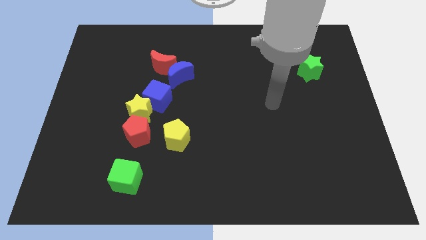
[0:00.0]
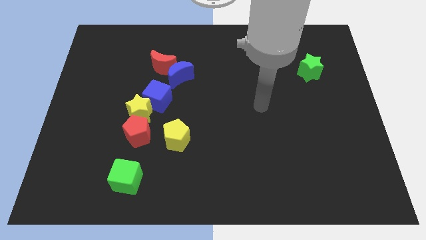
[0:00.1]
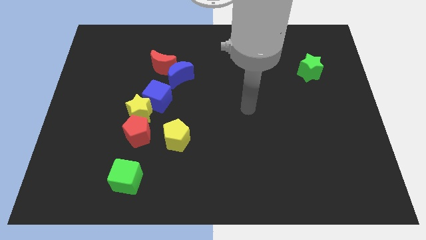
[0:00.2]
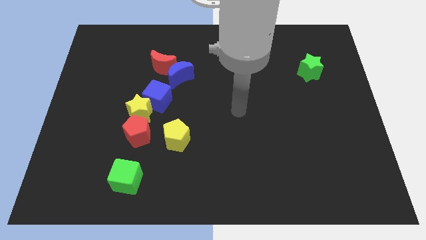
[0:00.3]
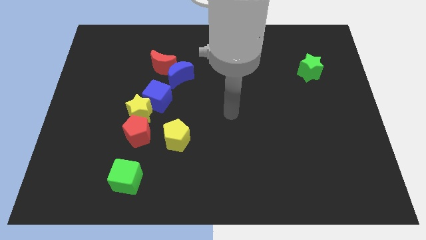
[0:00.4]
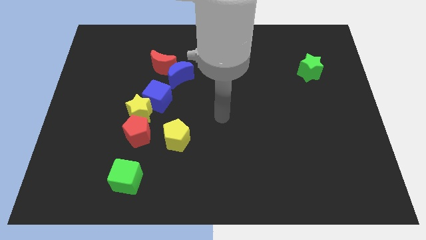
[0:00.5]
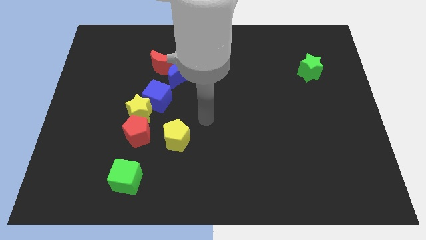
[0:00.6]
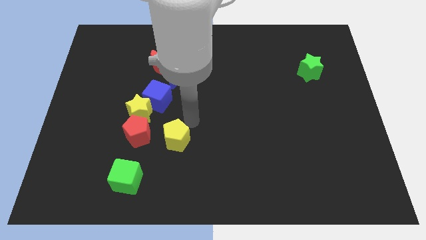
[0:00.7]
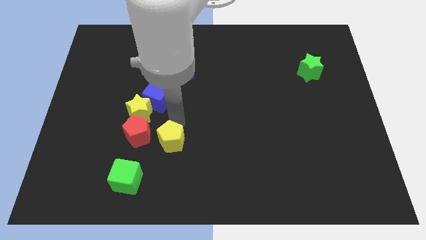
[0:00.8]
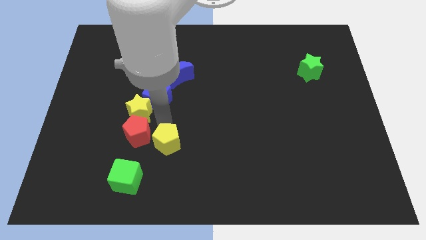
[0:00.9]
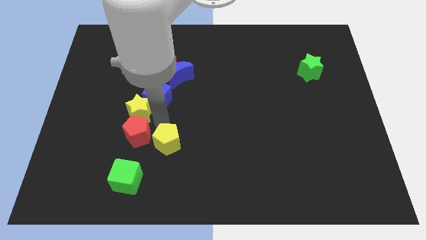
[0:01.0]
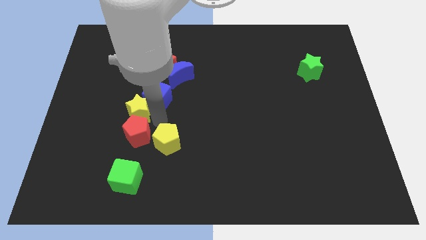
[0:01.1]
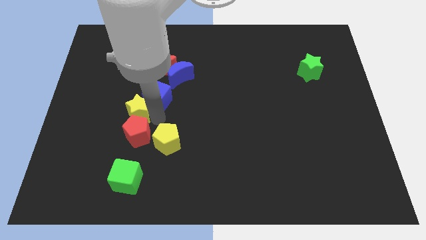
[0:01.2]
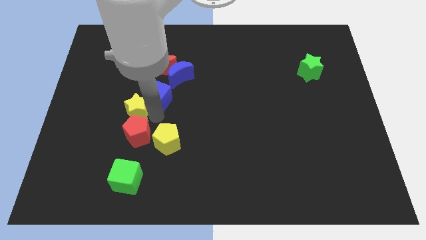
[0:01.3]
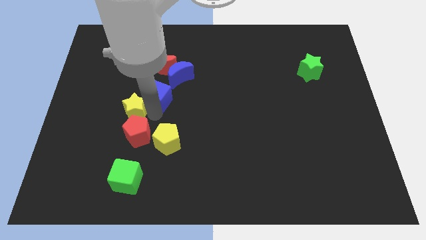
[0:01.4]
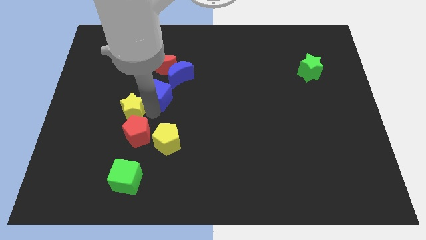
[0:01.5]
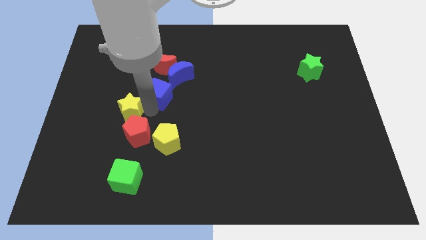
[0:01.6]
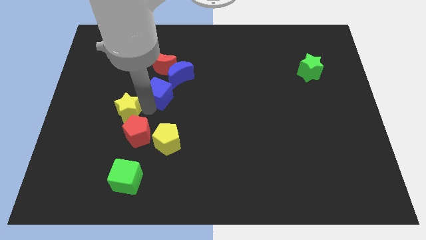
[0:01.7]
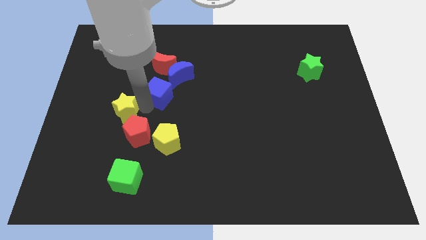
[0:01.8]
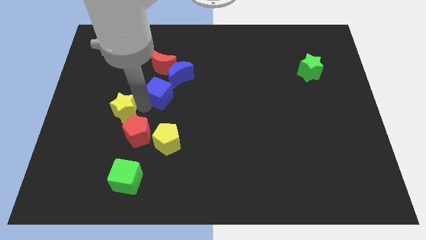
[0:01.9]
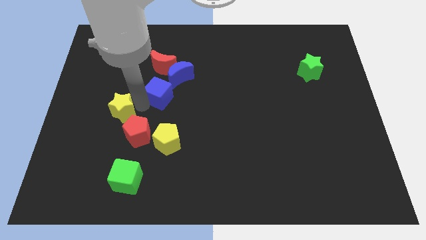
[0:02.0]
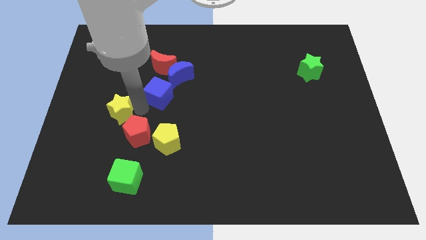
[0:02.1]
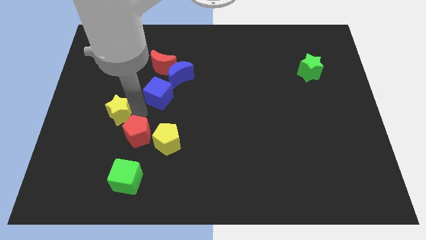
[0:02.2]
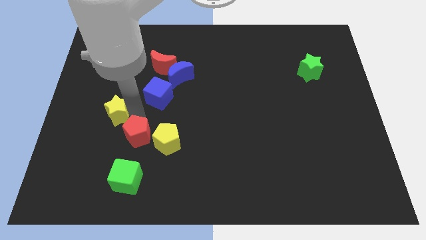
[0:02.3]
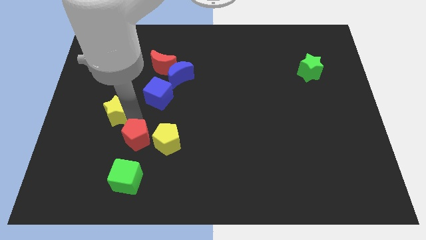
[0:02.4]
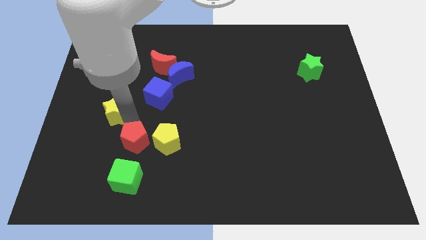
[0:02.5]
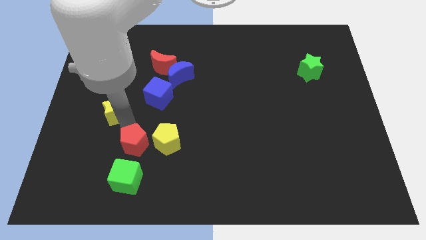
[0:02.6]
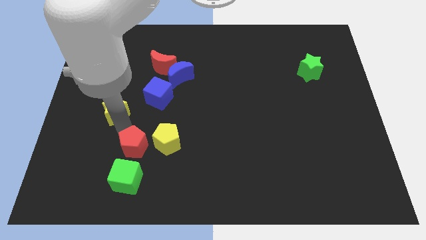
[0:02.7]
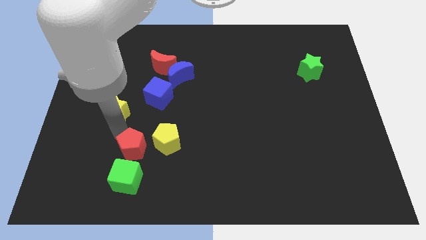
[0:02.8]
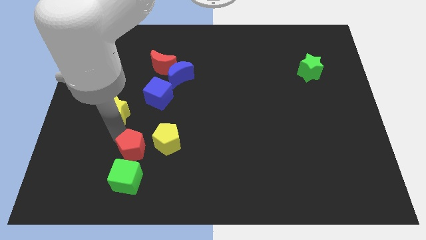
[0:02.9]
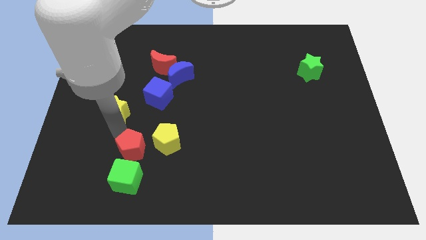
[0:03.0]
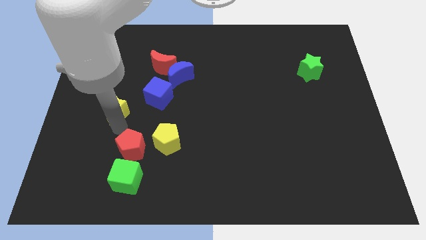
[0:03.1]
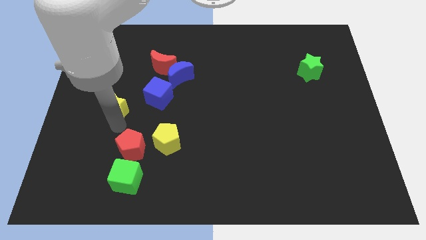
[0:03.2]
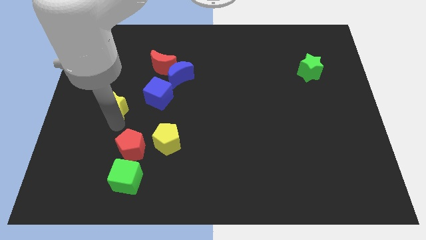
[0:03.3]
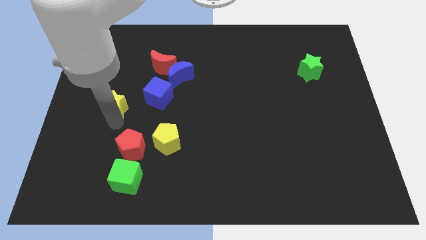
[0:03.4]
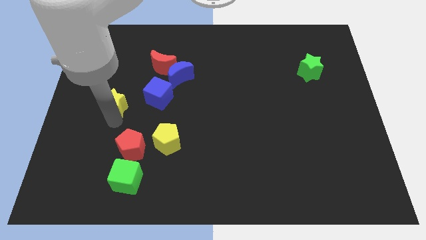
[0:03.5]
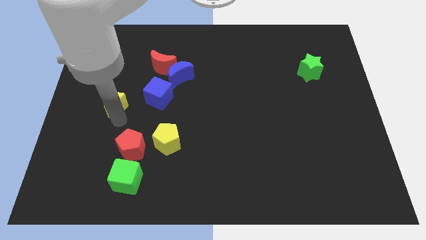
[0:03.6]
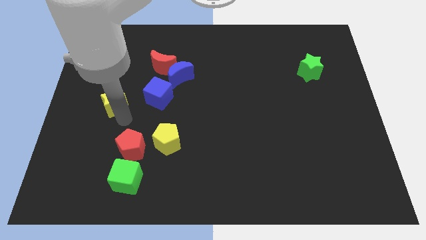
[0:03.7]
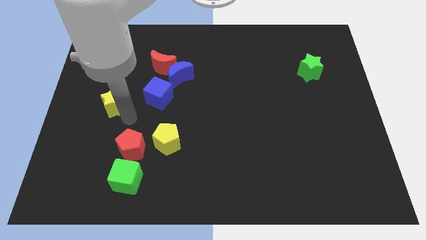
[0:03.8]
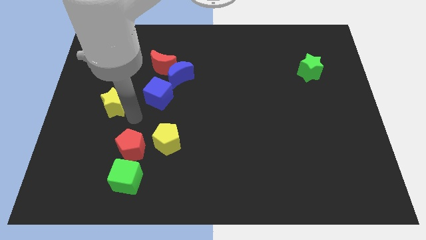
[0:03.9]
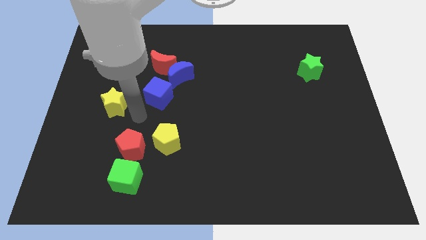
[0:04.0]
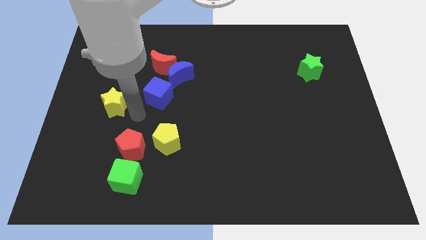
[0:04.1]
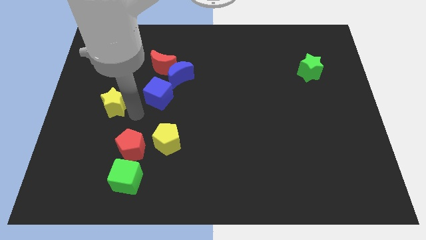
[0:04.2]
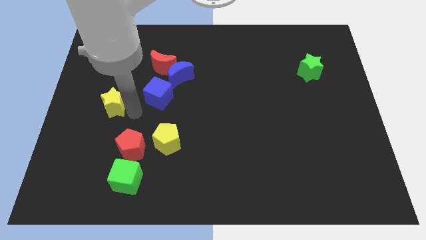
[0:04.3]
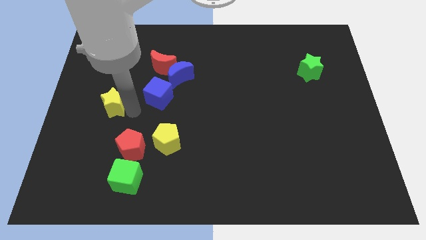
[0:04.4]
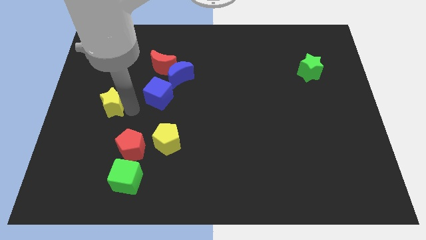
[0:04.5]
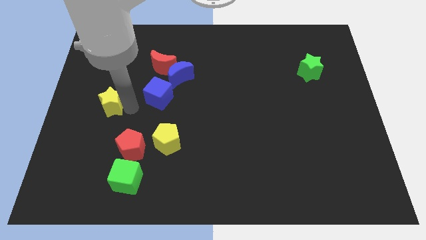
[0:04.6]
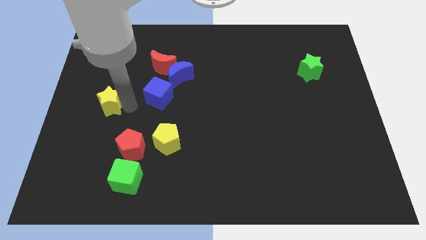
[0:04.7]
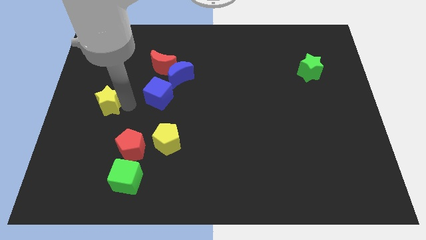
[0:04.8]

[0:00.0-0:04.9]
move the yellow star away from the blue cube and red pentagon

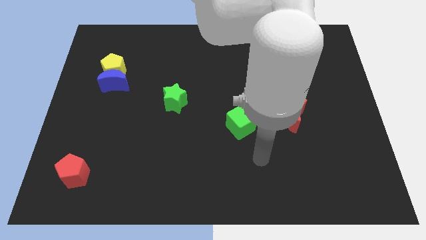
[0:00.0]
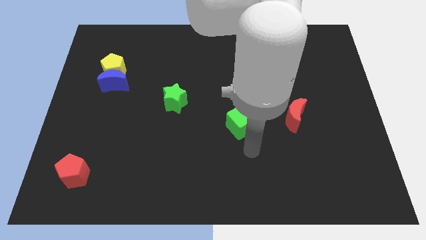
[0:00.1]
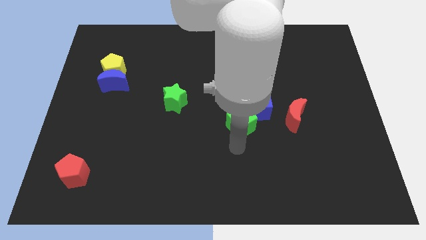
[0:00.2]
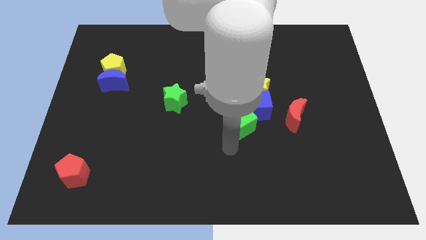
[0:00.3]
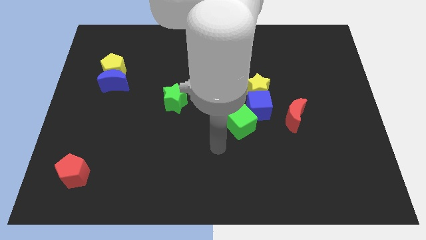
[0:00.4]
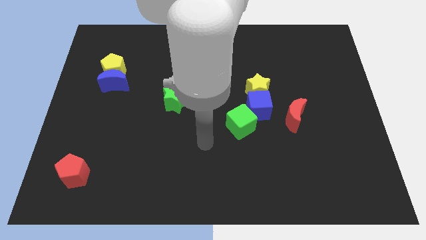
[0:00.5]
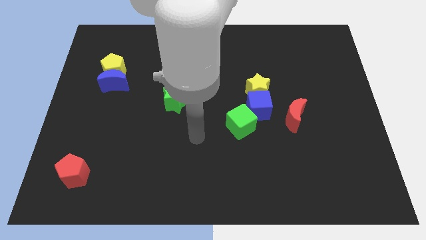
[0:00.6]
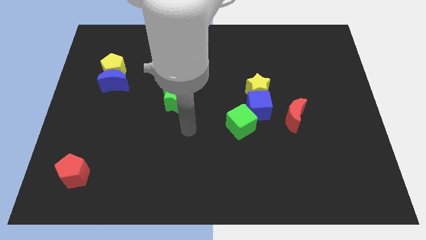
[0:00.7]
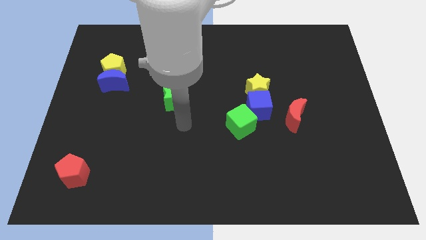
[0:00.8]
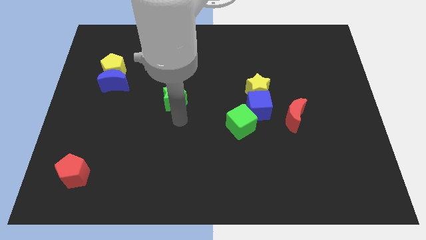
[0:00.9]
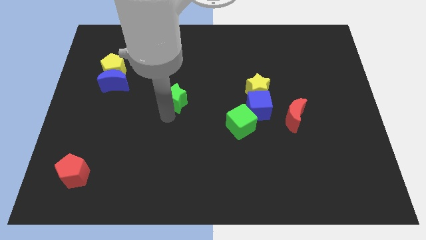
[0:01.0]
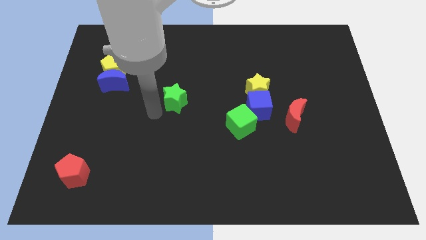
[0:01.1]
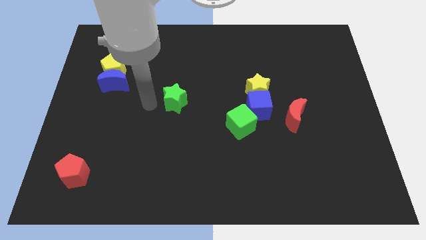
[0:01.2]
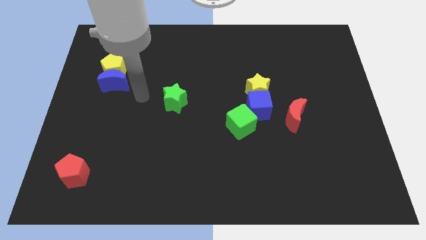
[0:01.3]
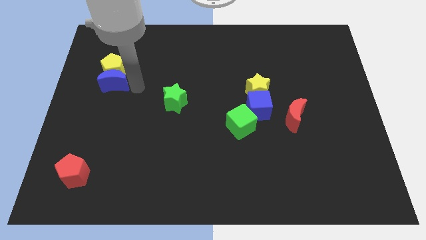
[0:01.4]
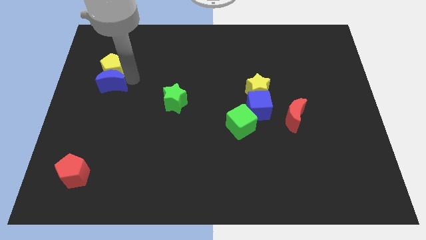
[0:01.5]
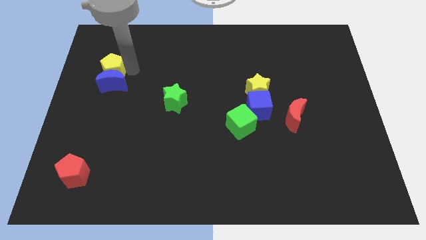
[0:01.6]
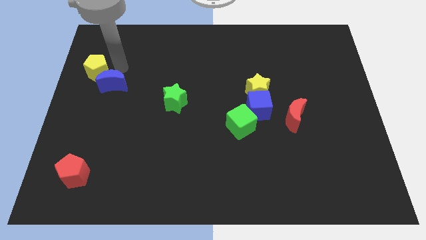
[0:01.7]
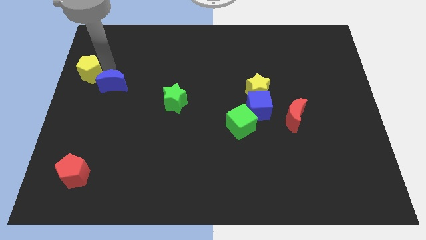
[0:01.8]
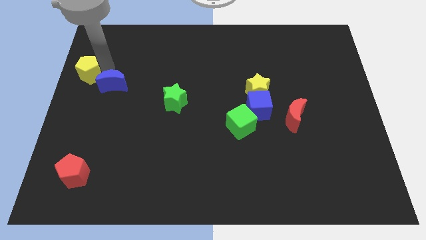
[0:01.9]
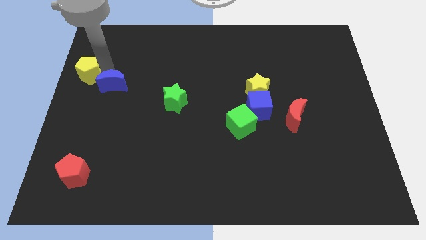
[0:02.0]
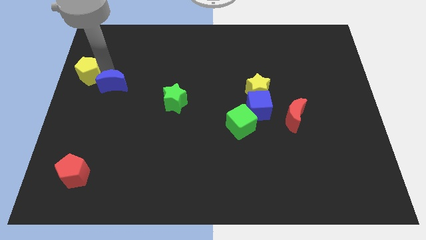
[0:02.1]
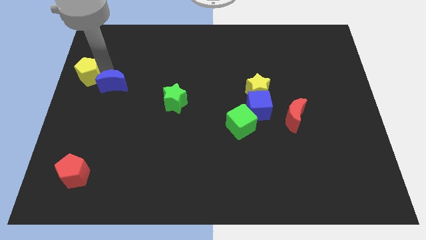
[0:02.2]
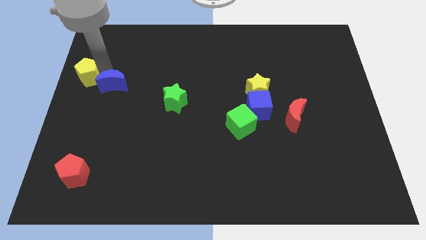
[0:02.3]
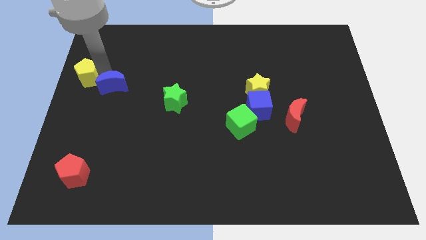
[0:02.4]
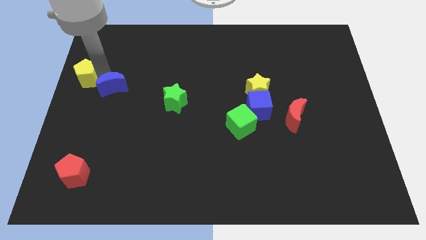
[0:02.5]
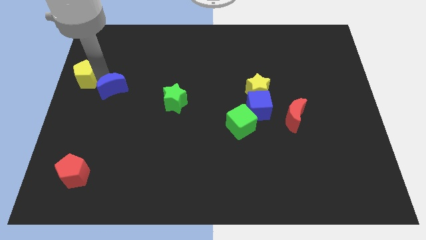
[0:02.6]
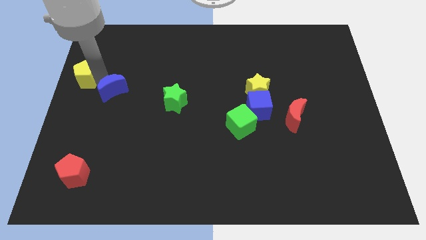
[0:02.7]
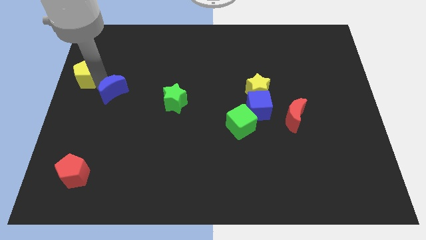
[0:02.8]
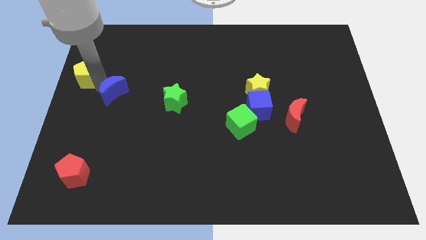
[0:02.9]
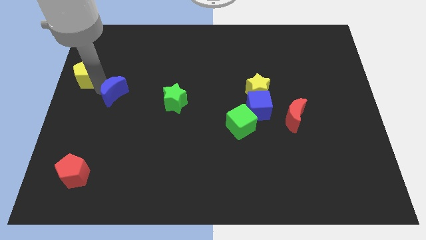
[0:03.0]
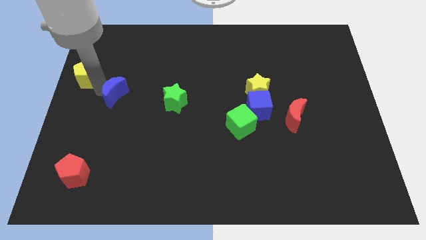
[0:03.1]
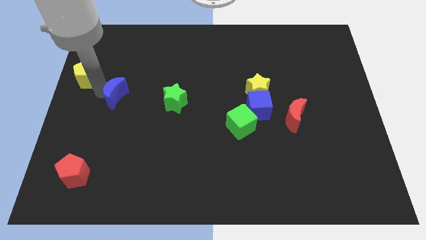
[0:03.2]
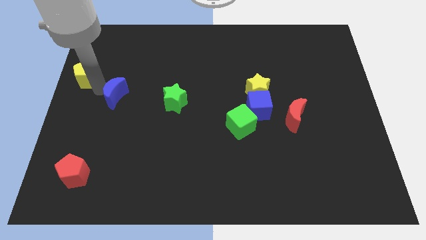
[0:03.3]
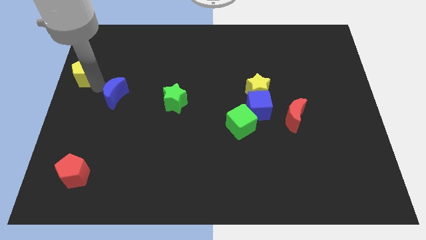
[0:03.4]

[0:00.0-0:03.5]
move the blue moon away from the yellow pentagon

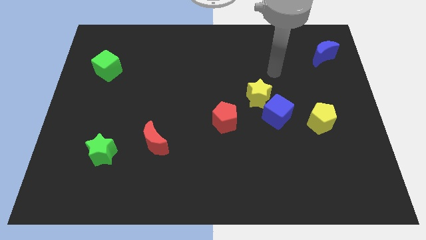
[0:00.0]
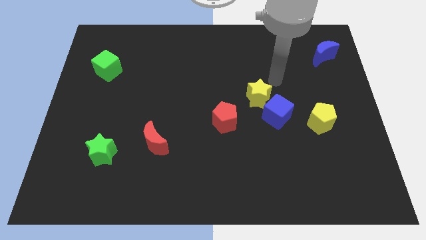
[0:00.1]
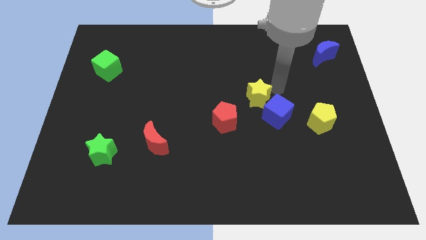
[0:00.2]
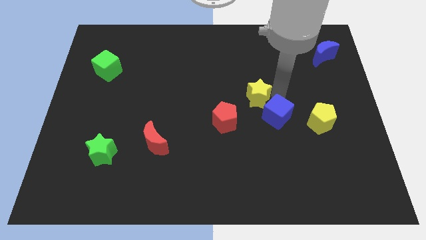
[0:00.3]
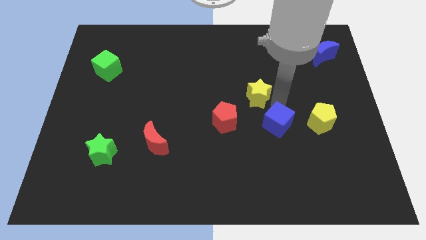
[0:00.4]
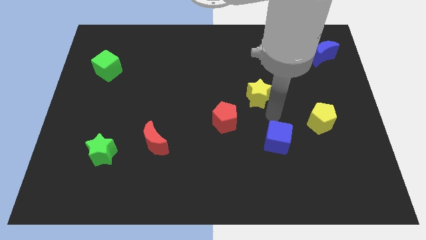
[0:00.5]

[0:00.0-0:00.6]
move the yellow star away from the blue cube

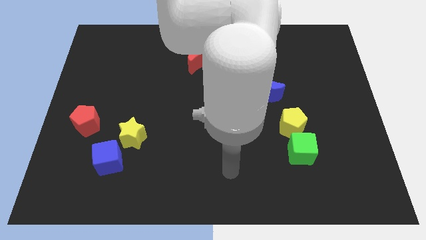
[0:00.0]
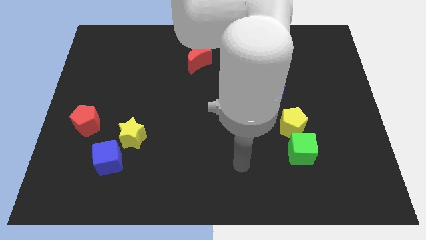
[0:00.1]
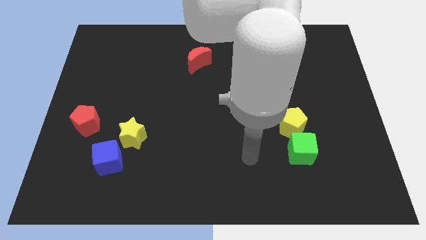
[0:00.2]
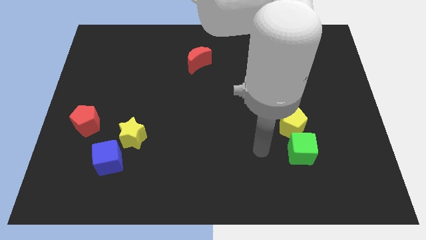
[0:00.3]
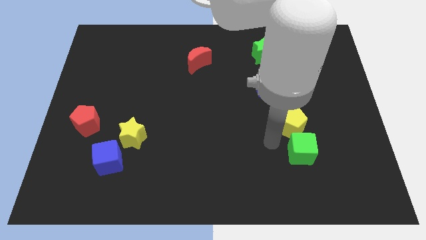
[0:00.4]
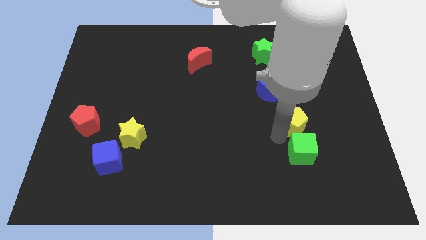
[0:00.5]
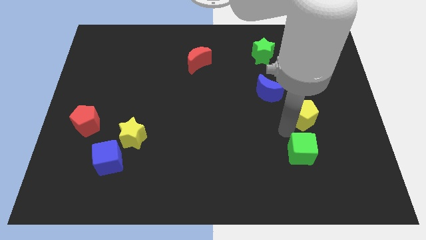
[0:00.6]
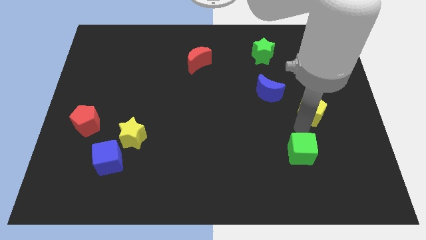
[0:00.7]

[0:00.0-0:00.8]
pull the green cube apart from the yellow pentagon
